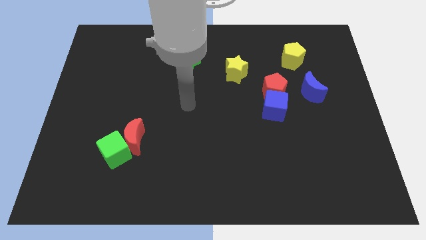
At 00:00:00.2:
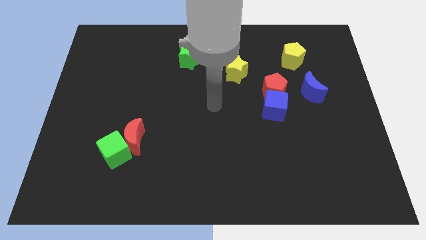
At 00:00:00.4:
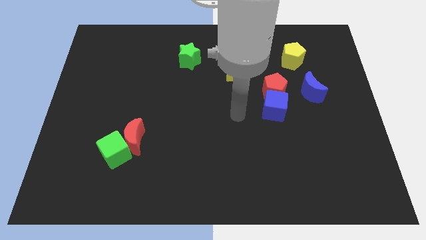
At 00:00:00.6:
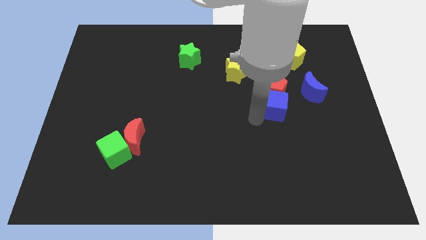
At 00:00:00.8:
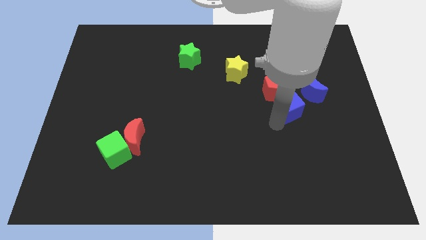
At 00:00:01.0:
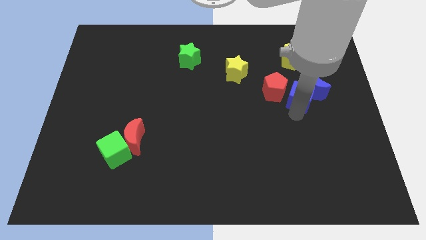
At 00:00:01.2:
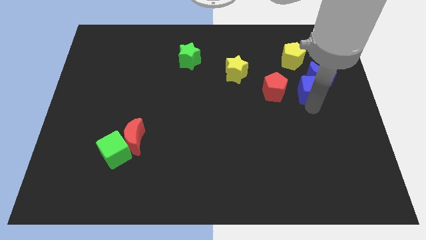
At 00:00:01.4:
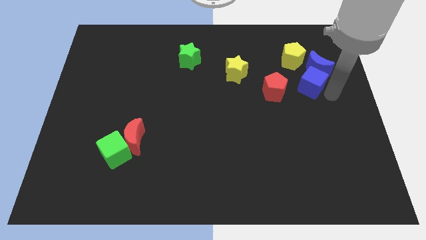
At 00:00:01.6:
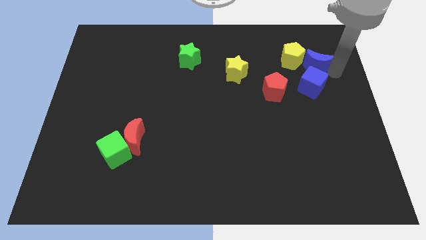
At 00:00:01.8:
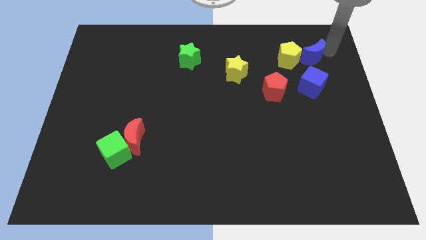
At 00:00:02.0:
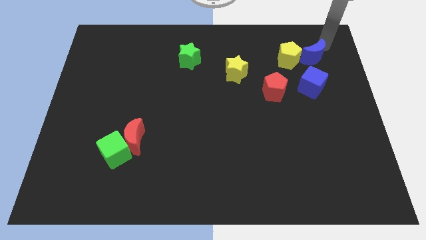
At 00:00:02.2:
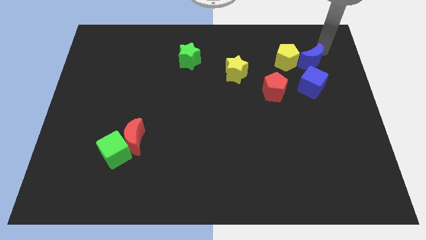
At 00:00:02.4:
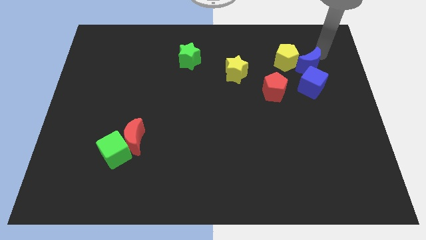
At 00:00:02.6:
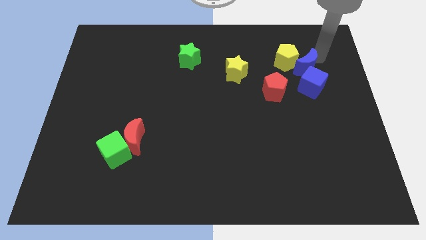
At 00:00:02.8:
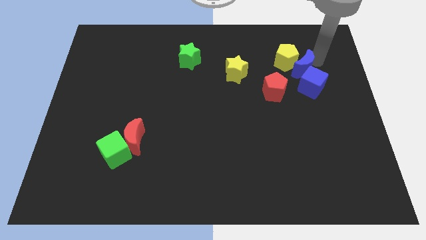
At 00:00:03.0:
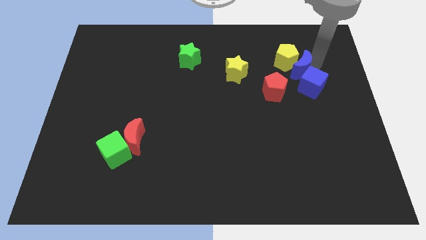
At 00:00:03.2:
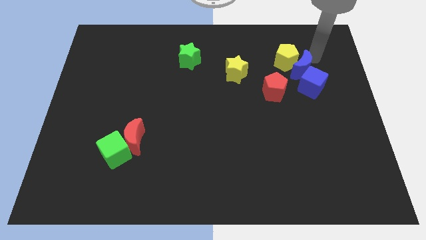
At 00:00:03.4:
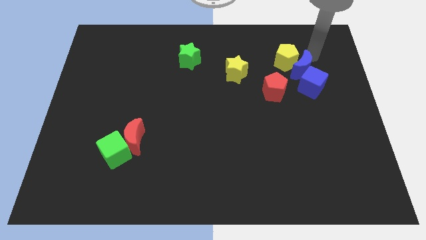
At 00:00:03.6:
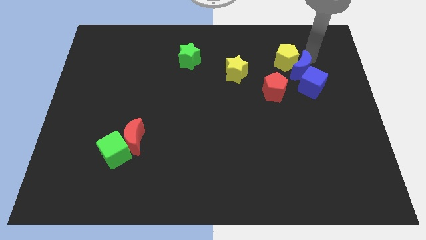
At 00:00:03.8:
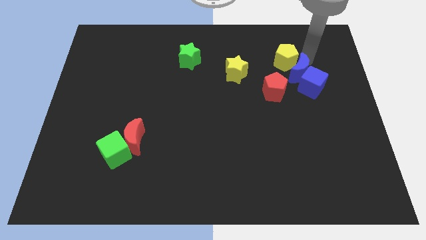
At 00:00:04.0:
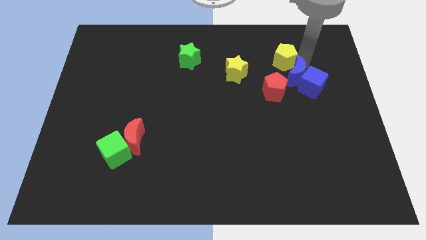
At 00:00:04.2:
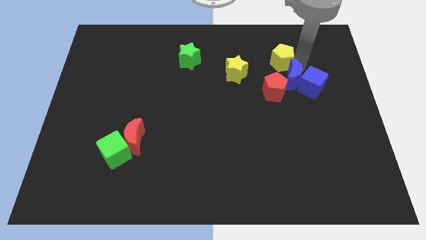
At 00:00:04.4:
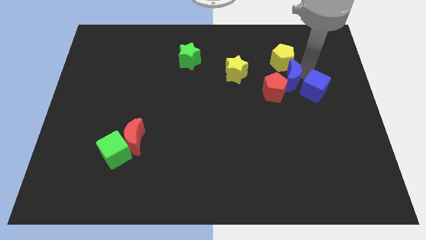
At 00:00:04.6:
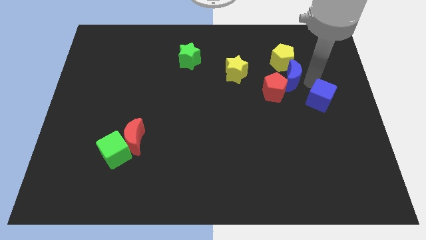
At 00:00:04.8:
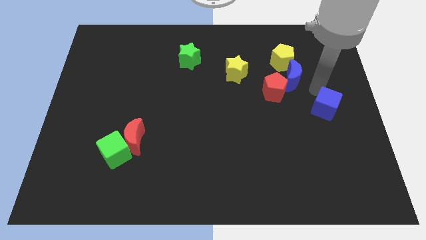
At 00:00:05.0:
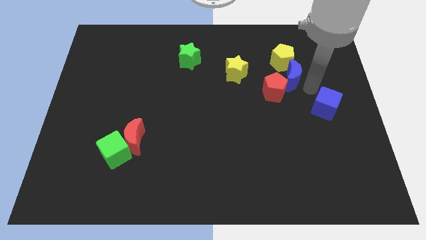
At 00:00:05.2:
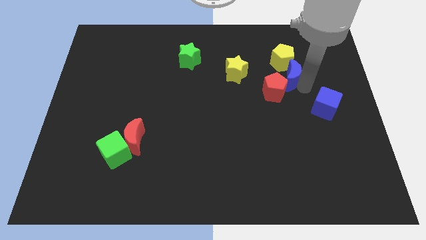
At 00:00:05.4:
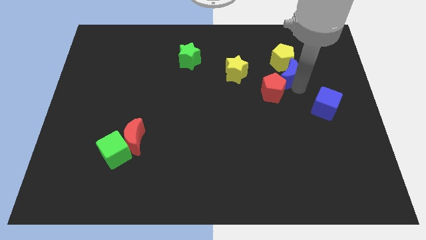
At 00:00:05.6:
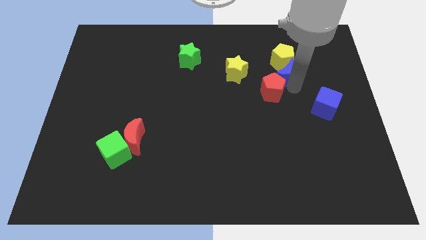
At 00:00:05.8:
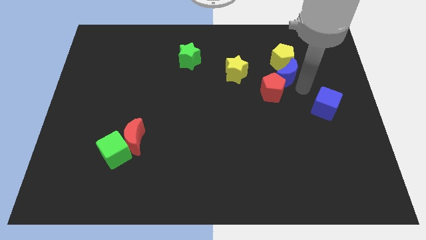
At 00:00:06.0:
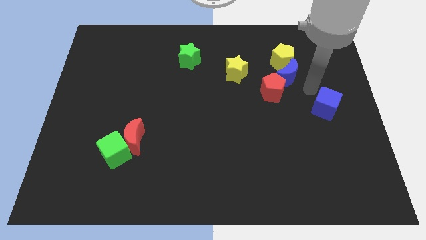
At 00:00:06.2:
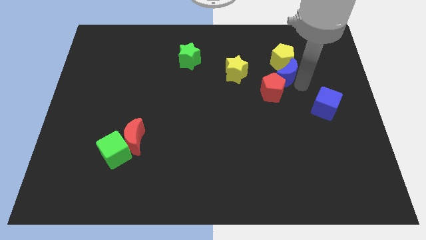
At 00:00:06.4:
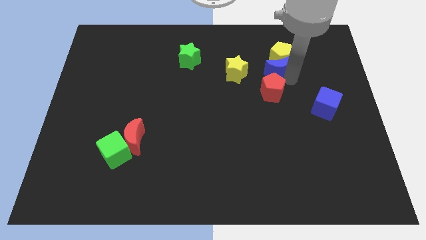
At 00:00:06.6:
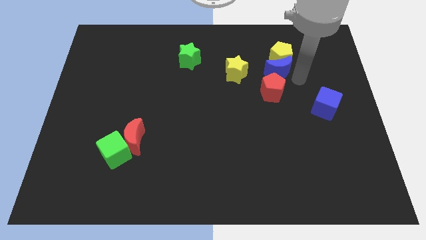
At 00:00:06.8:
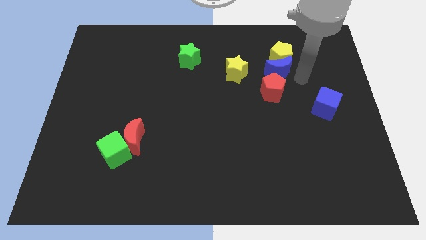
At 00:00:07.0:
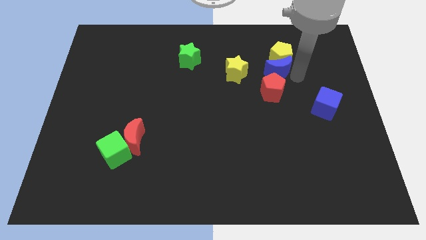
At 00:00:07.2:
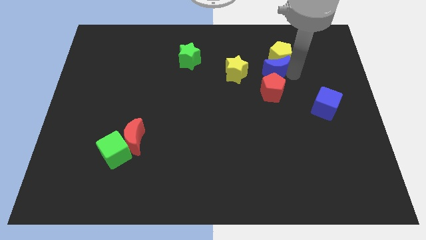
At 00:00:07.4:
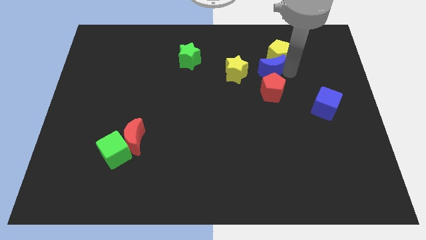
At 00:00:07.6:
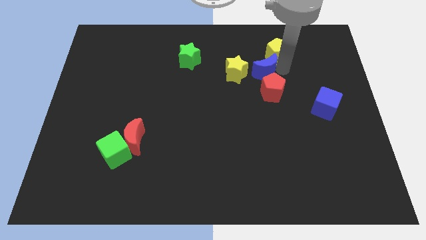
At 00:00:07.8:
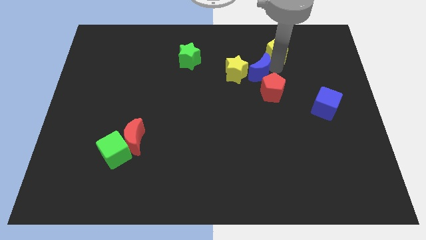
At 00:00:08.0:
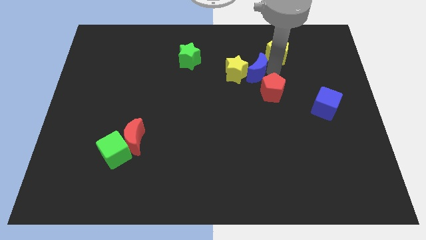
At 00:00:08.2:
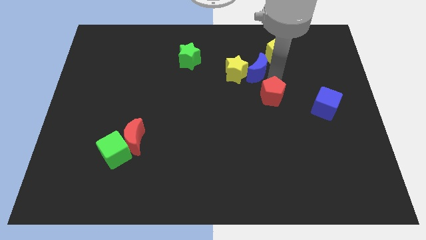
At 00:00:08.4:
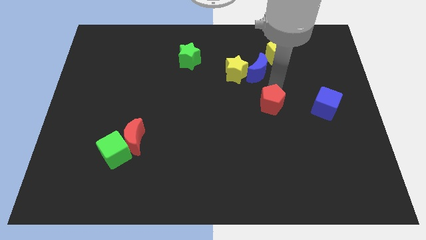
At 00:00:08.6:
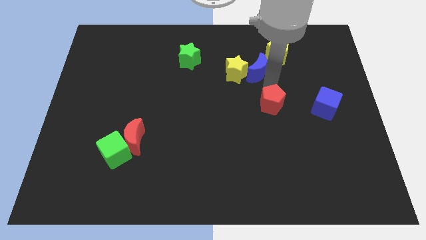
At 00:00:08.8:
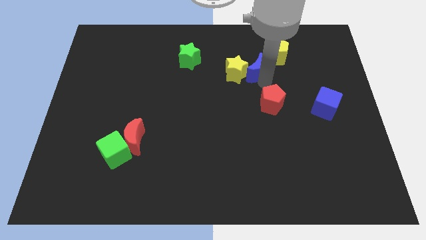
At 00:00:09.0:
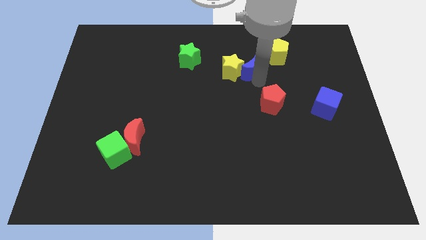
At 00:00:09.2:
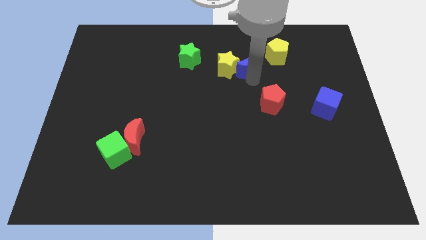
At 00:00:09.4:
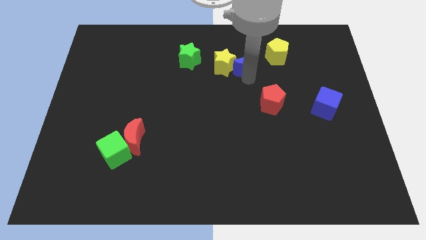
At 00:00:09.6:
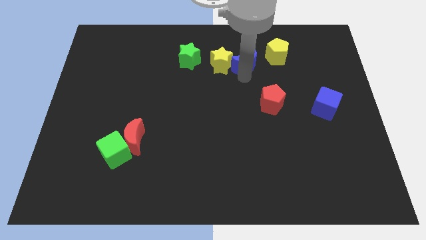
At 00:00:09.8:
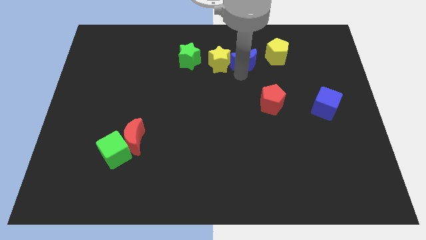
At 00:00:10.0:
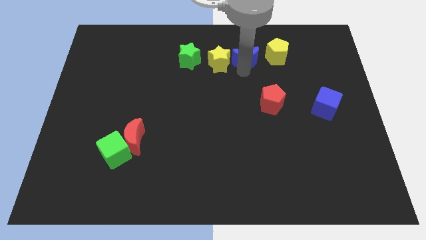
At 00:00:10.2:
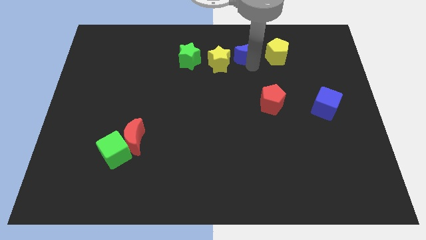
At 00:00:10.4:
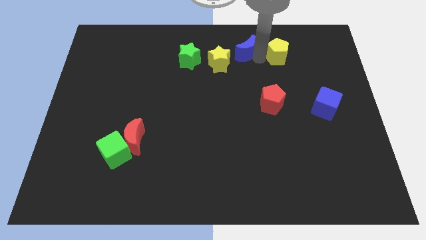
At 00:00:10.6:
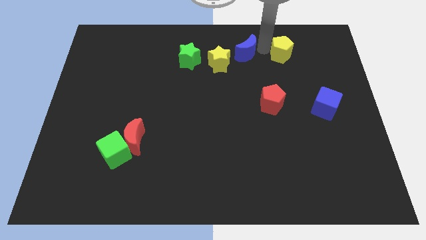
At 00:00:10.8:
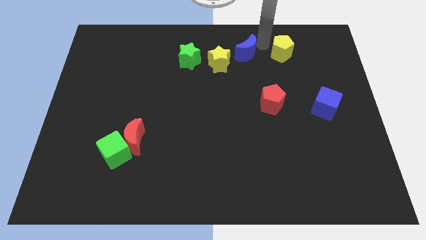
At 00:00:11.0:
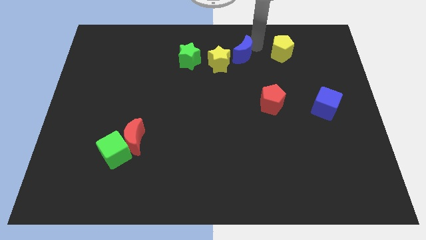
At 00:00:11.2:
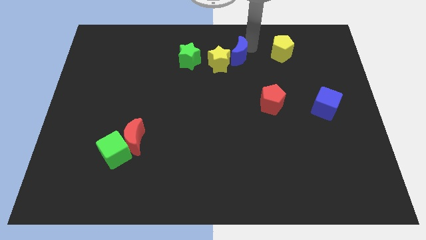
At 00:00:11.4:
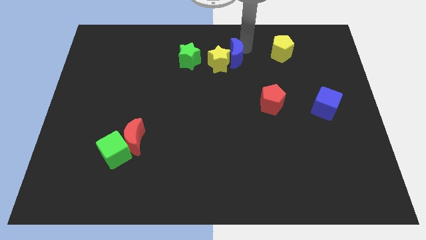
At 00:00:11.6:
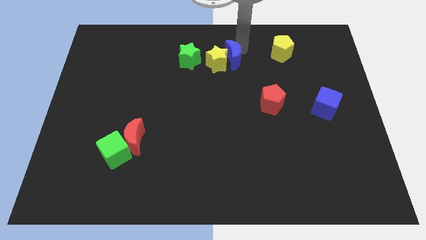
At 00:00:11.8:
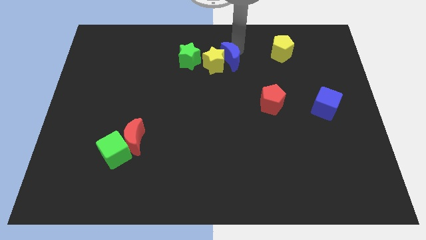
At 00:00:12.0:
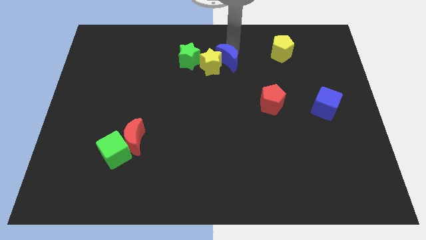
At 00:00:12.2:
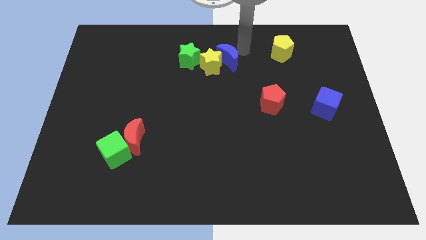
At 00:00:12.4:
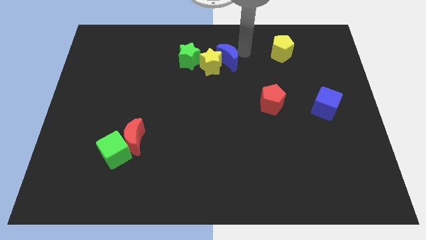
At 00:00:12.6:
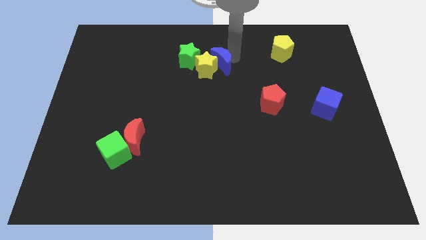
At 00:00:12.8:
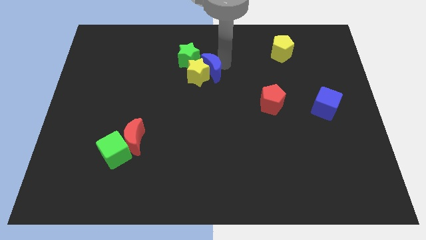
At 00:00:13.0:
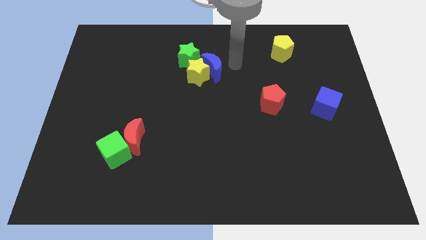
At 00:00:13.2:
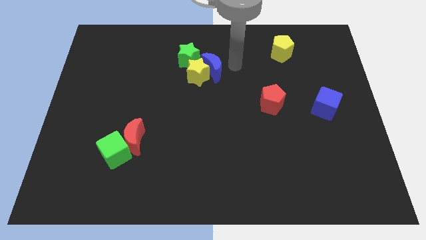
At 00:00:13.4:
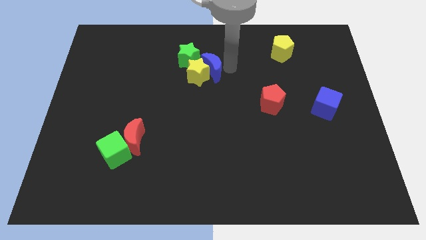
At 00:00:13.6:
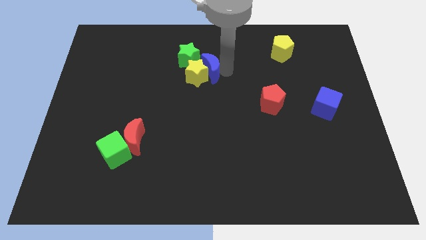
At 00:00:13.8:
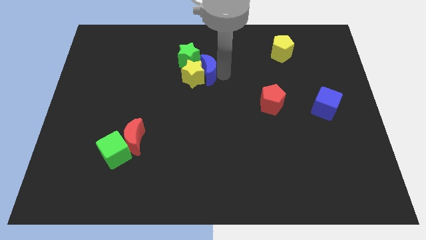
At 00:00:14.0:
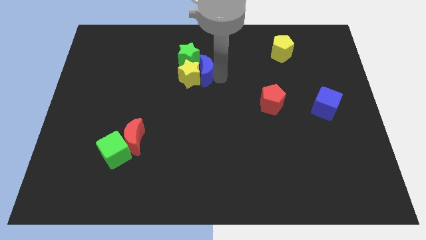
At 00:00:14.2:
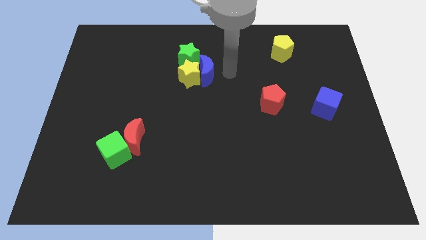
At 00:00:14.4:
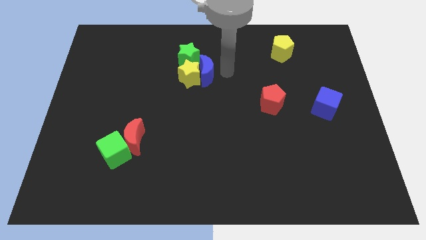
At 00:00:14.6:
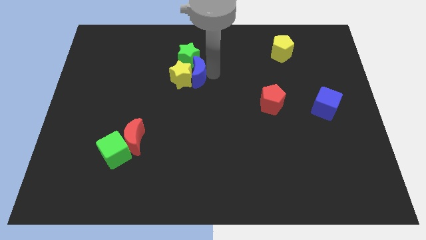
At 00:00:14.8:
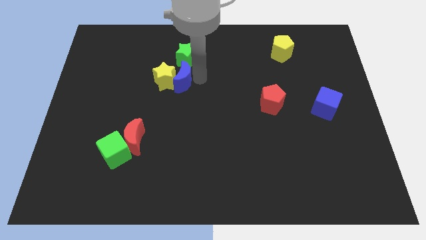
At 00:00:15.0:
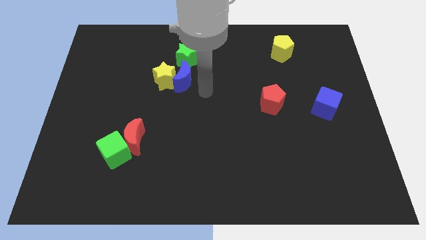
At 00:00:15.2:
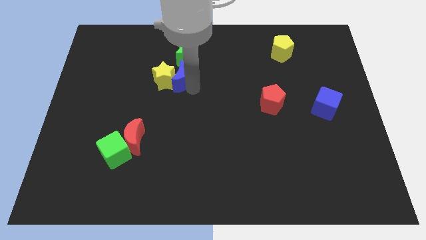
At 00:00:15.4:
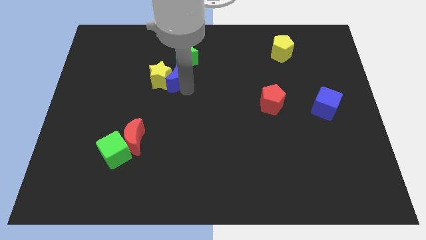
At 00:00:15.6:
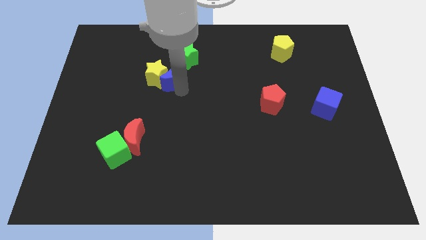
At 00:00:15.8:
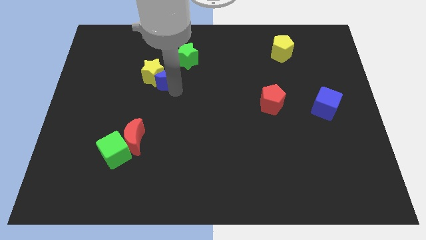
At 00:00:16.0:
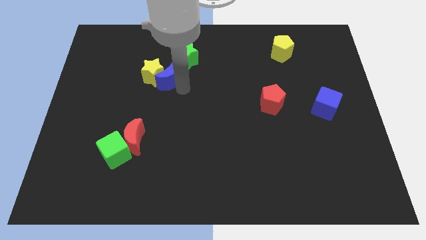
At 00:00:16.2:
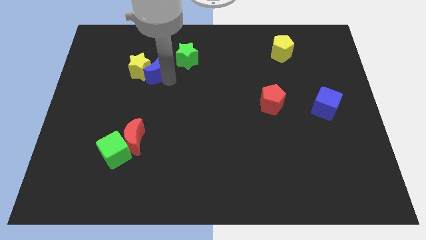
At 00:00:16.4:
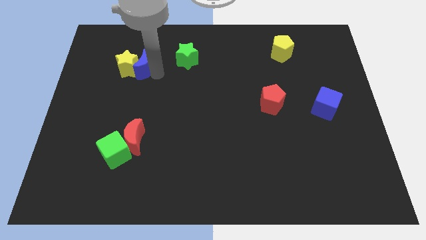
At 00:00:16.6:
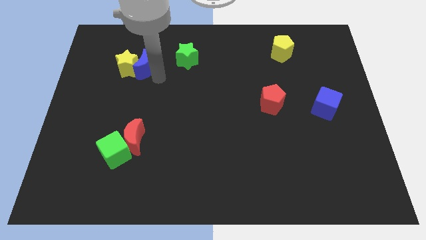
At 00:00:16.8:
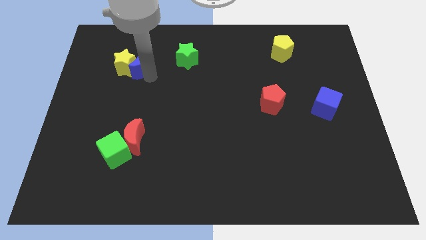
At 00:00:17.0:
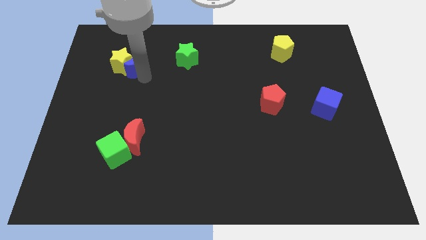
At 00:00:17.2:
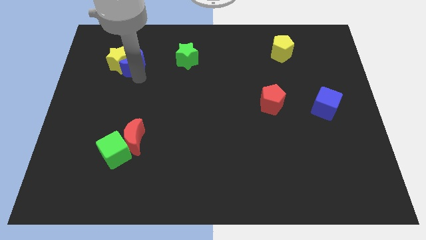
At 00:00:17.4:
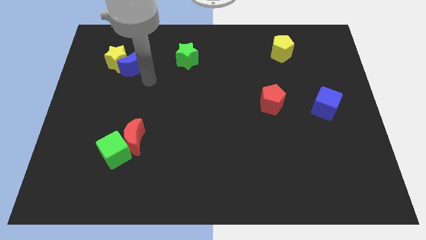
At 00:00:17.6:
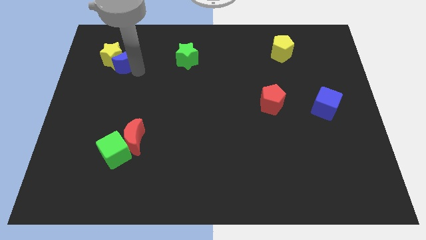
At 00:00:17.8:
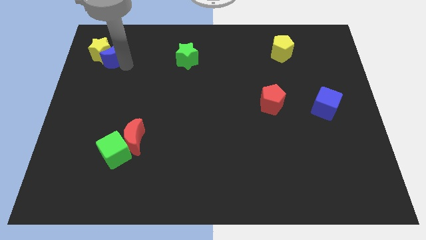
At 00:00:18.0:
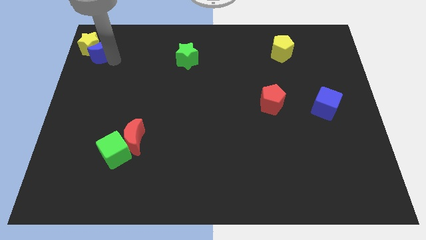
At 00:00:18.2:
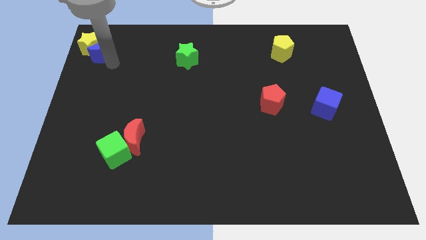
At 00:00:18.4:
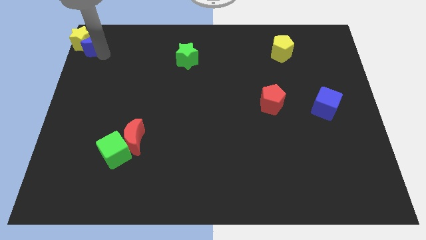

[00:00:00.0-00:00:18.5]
push the blue moon to the upper left corner
